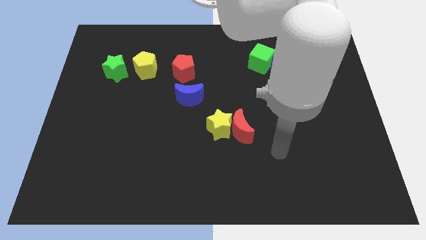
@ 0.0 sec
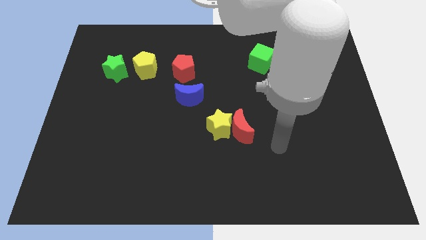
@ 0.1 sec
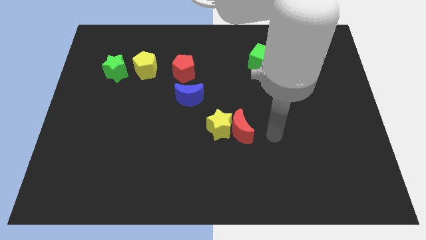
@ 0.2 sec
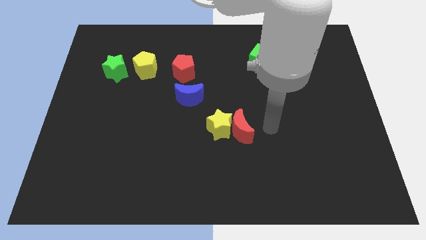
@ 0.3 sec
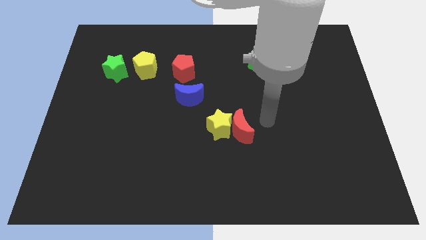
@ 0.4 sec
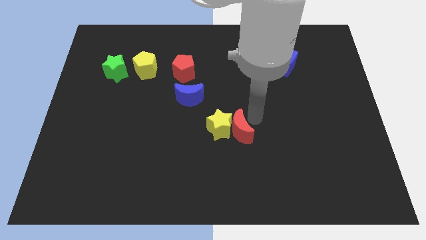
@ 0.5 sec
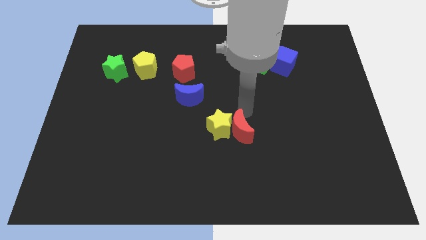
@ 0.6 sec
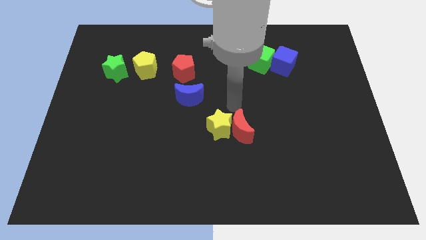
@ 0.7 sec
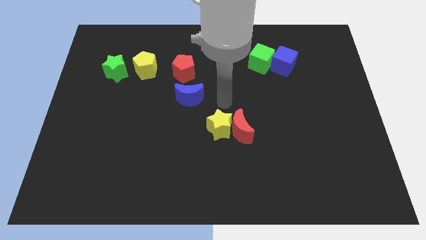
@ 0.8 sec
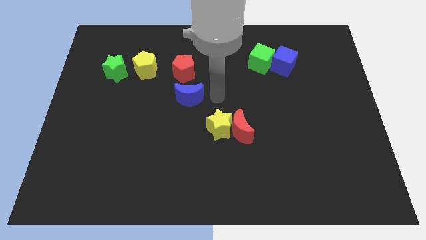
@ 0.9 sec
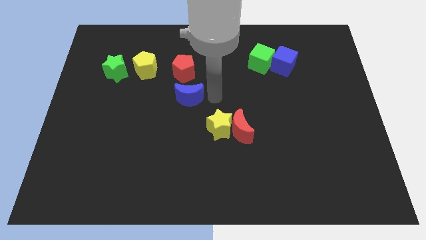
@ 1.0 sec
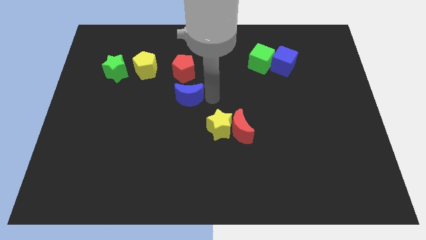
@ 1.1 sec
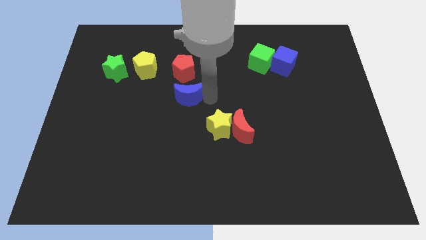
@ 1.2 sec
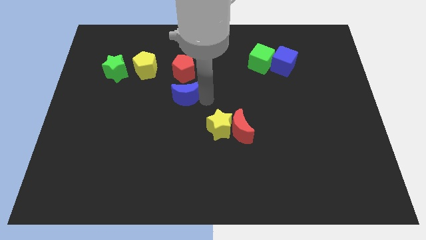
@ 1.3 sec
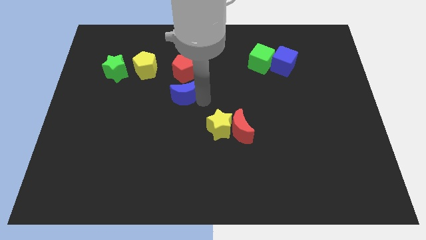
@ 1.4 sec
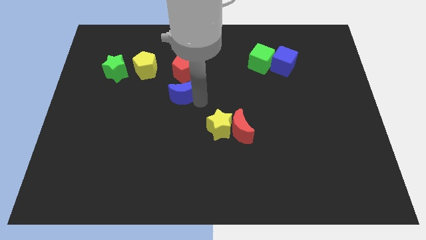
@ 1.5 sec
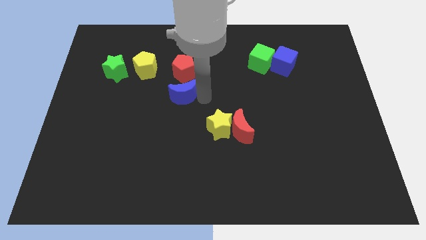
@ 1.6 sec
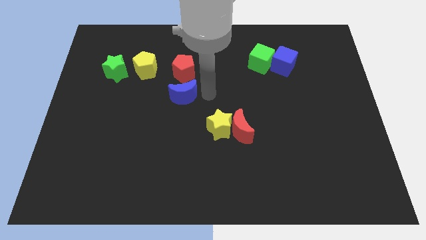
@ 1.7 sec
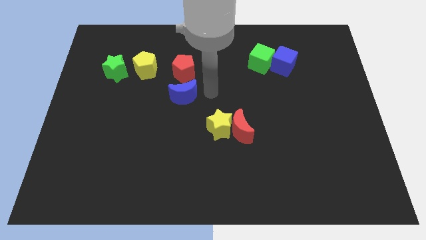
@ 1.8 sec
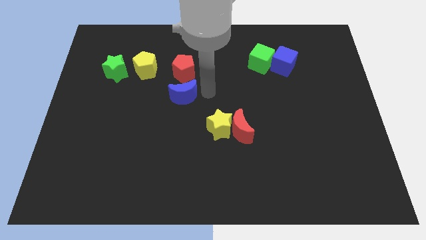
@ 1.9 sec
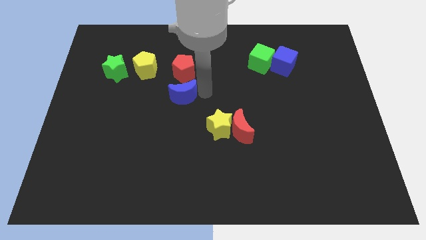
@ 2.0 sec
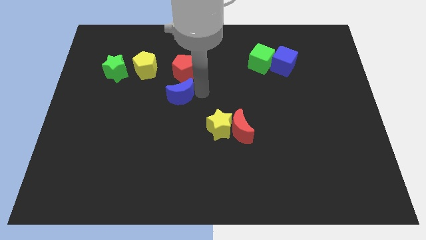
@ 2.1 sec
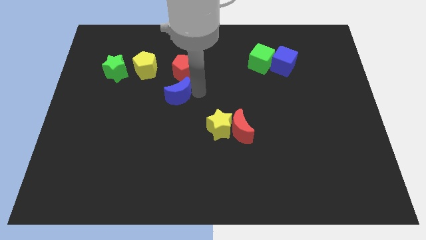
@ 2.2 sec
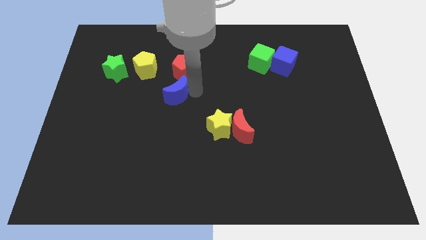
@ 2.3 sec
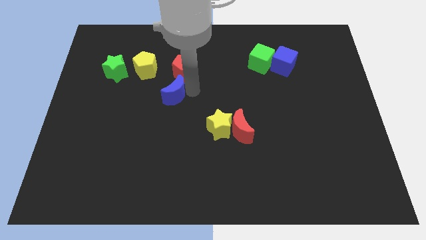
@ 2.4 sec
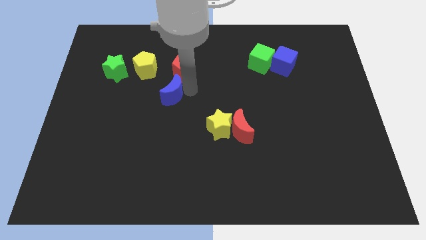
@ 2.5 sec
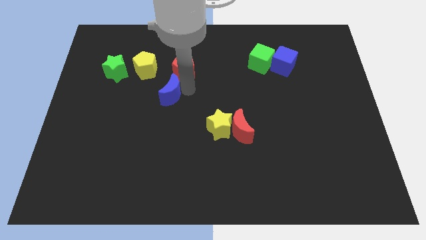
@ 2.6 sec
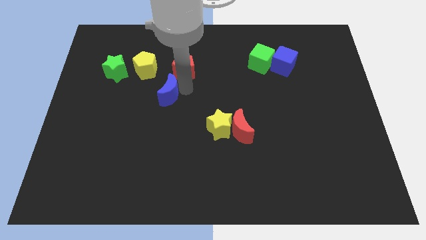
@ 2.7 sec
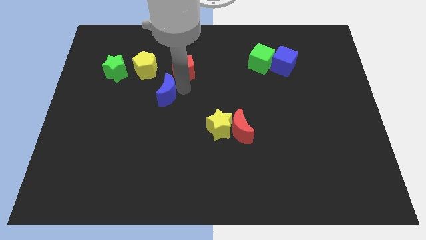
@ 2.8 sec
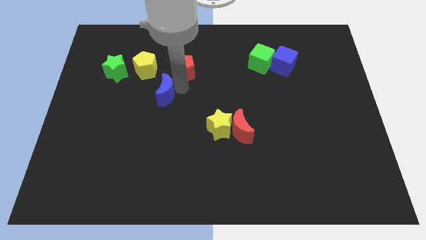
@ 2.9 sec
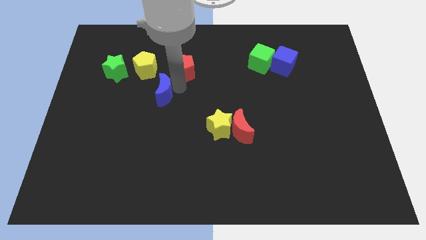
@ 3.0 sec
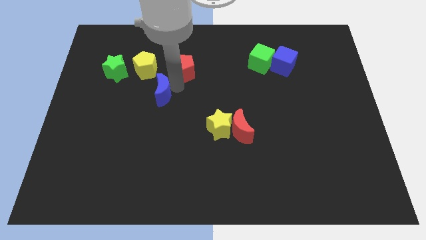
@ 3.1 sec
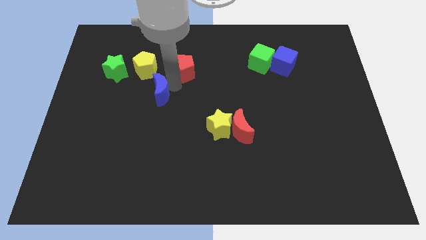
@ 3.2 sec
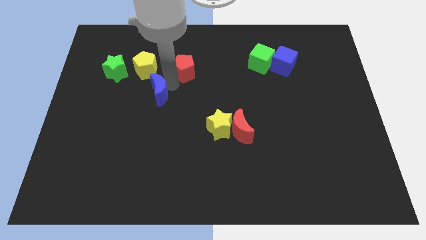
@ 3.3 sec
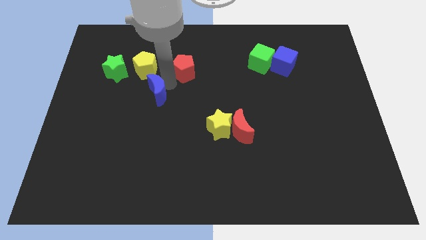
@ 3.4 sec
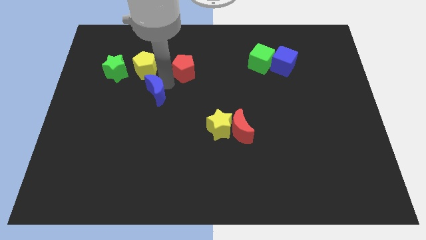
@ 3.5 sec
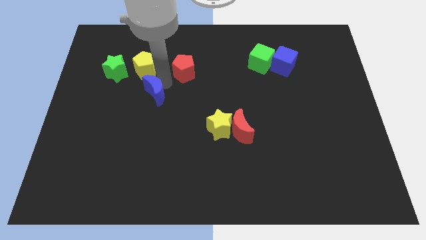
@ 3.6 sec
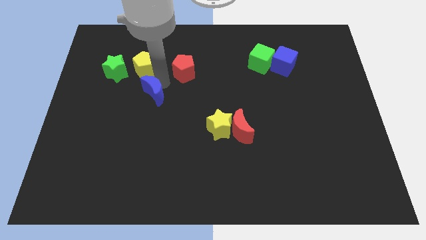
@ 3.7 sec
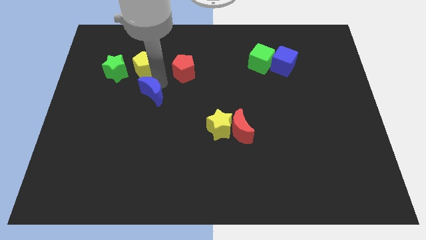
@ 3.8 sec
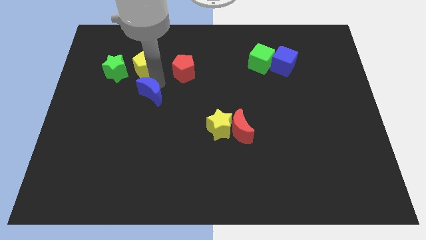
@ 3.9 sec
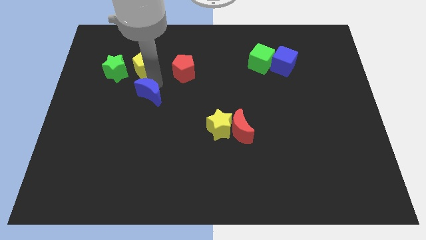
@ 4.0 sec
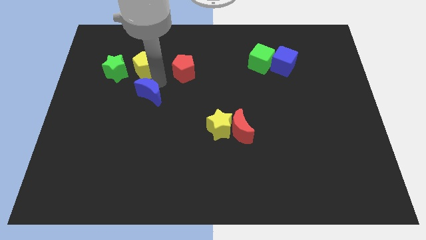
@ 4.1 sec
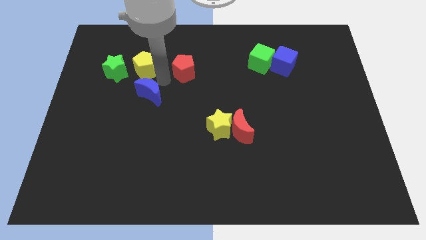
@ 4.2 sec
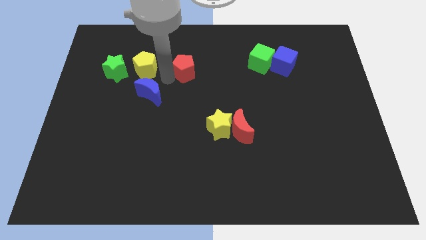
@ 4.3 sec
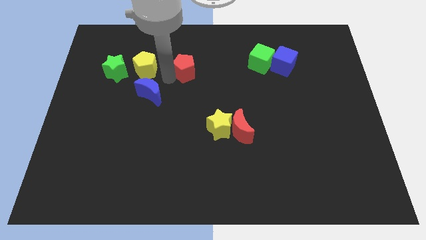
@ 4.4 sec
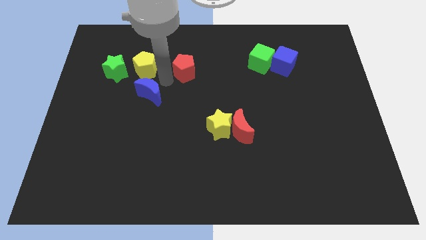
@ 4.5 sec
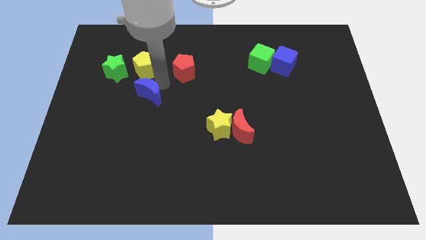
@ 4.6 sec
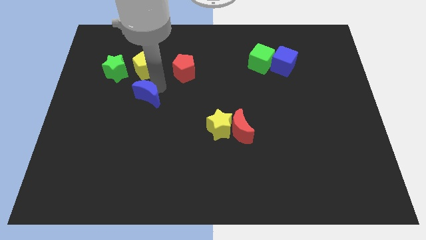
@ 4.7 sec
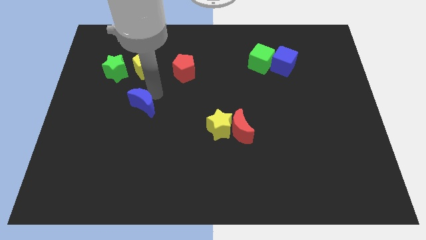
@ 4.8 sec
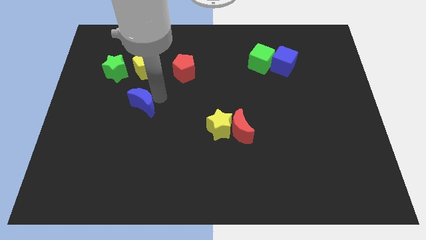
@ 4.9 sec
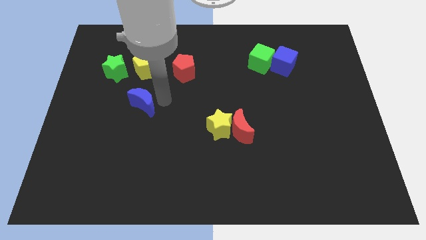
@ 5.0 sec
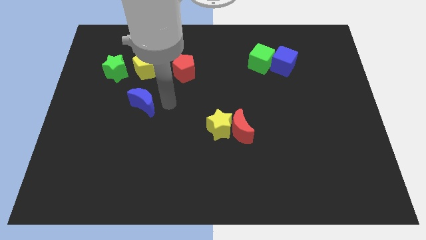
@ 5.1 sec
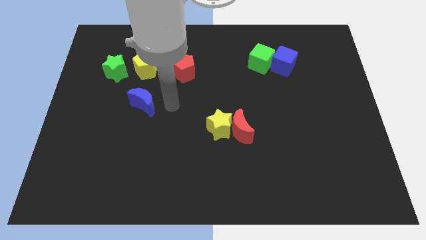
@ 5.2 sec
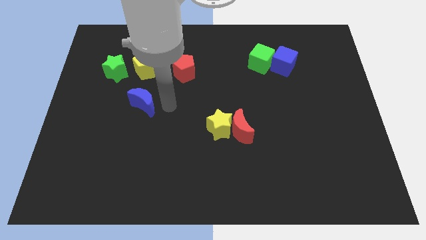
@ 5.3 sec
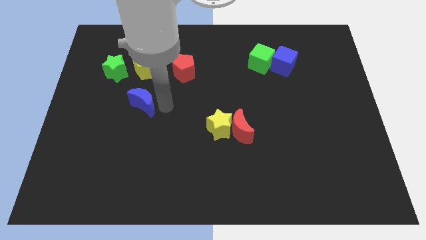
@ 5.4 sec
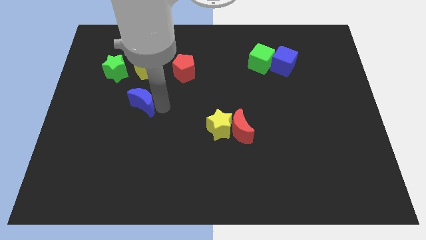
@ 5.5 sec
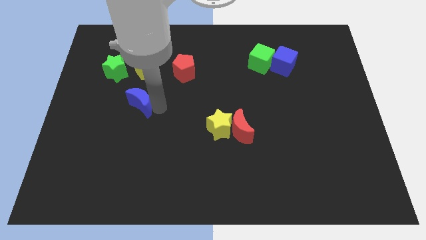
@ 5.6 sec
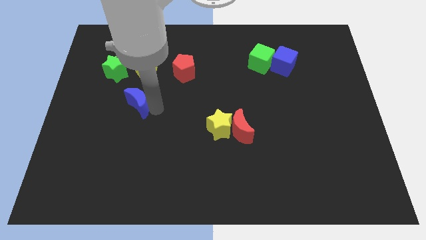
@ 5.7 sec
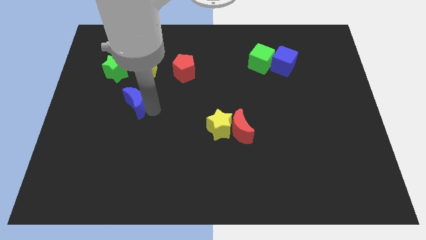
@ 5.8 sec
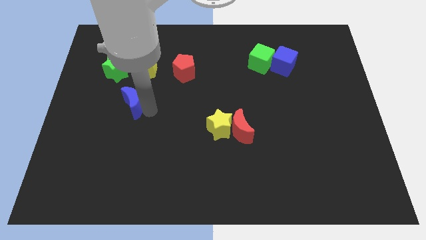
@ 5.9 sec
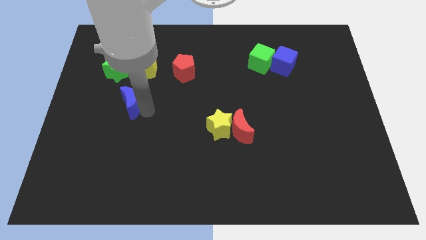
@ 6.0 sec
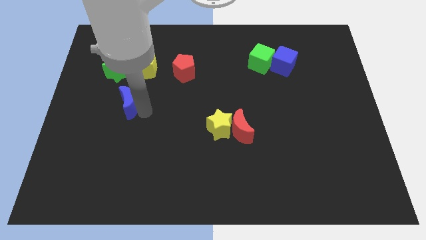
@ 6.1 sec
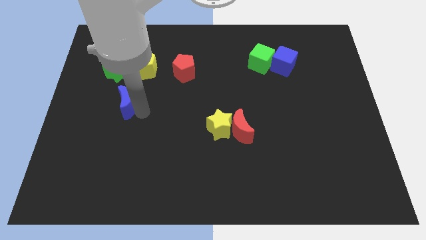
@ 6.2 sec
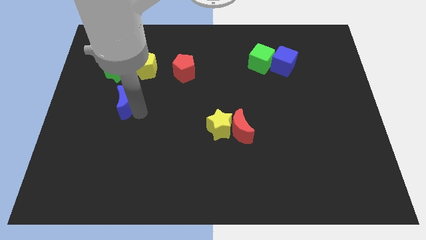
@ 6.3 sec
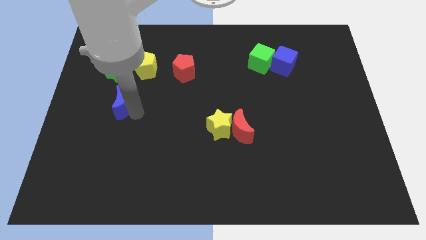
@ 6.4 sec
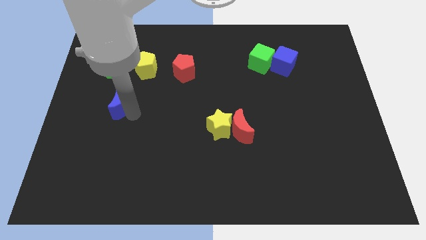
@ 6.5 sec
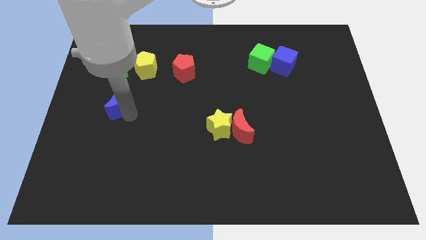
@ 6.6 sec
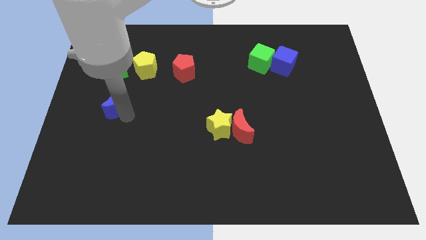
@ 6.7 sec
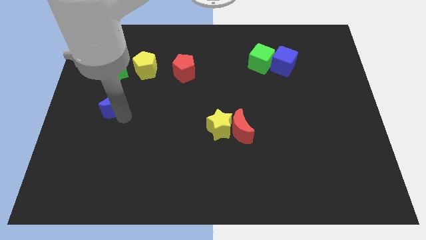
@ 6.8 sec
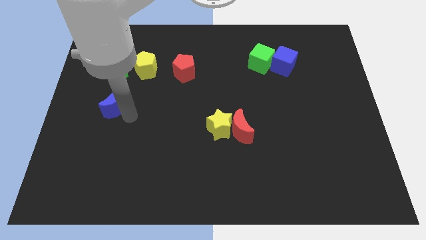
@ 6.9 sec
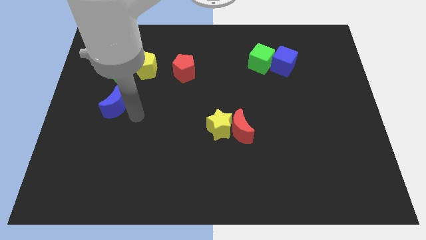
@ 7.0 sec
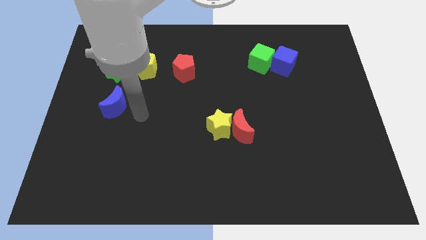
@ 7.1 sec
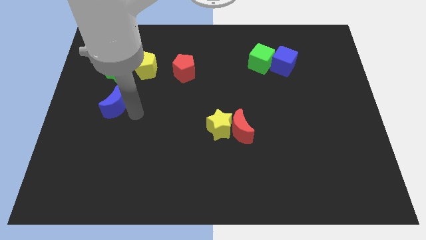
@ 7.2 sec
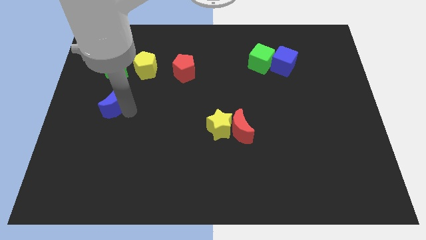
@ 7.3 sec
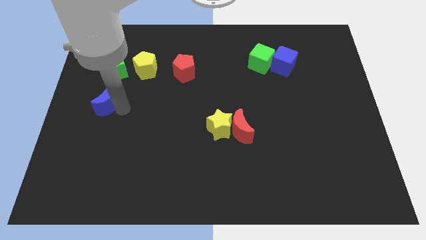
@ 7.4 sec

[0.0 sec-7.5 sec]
move the blue moon to the left side of the board
